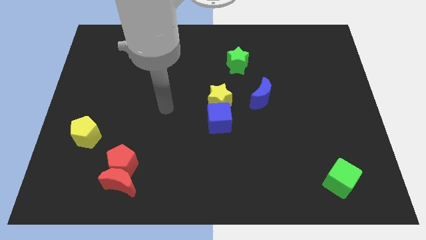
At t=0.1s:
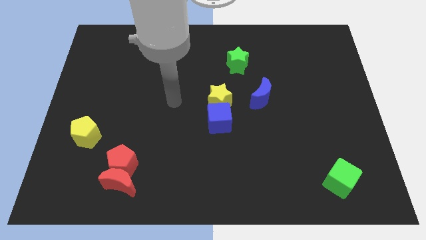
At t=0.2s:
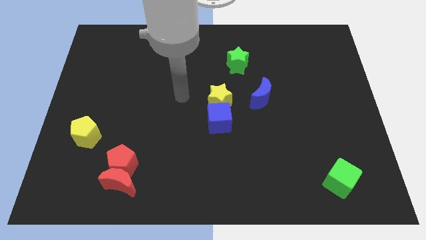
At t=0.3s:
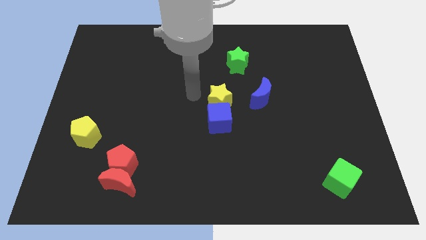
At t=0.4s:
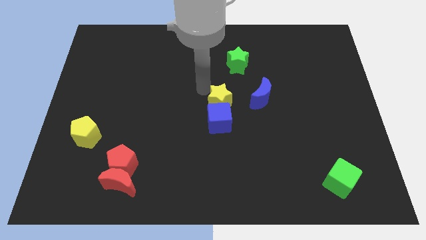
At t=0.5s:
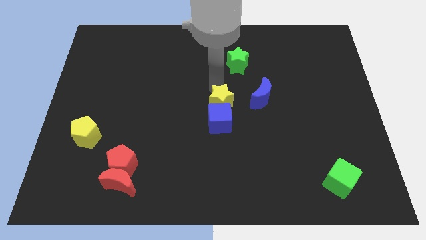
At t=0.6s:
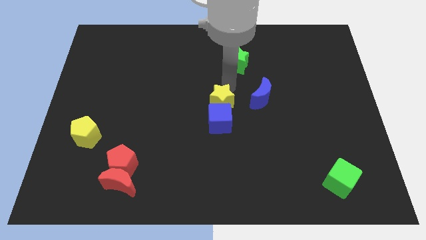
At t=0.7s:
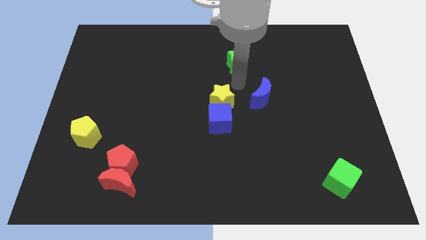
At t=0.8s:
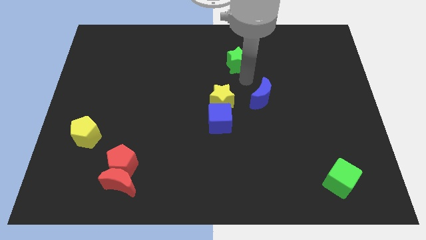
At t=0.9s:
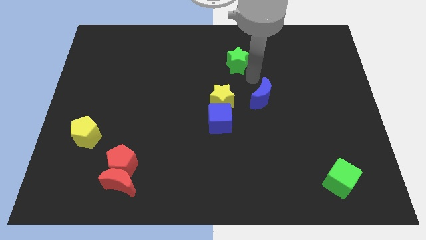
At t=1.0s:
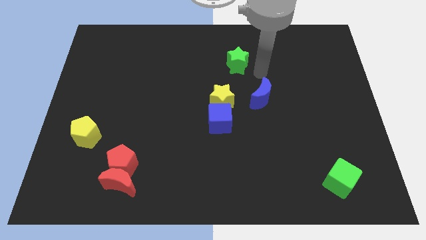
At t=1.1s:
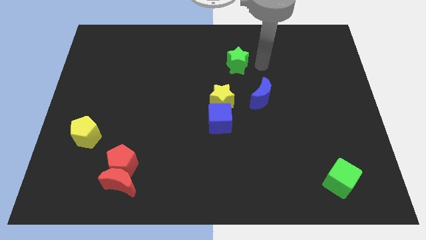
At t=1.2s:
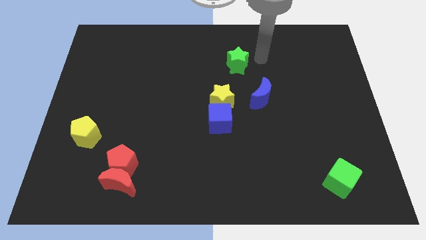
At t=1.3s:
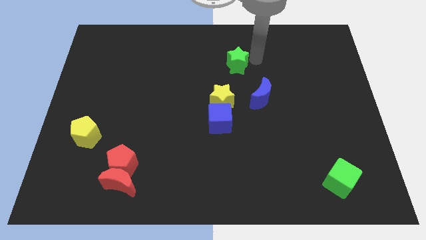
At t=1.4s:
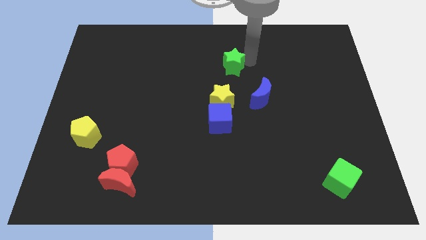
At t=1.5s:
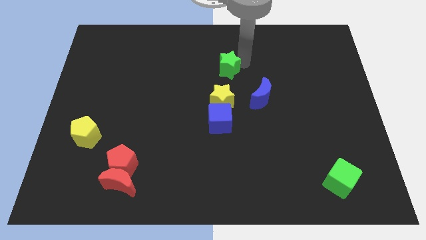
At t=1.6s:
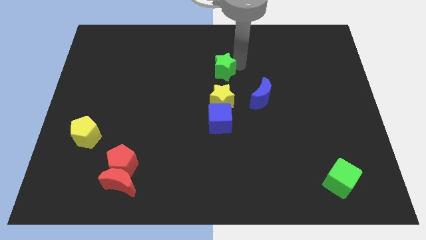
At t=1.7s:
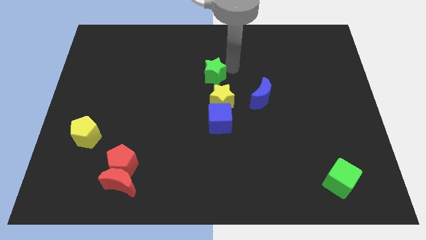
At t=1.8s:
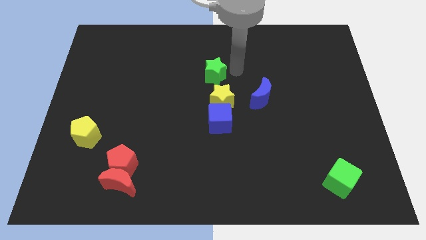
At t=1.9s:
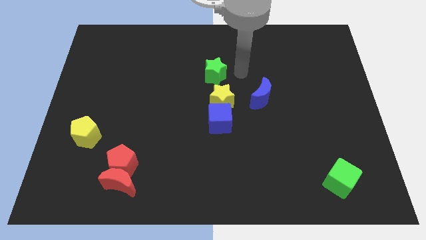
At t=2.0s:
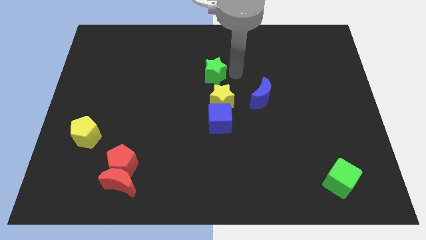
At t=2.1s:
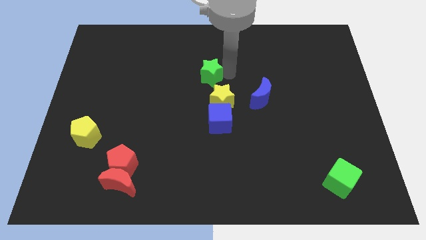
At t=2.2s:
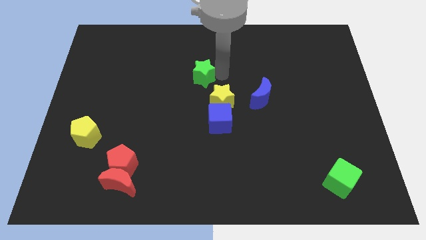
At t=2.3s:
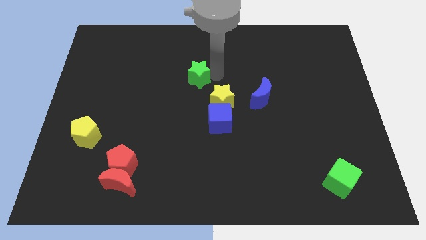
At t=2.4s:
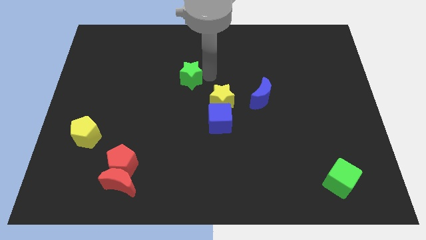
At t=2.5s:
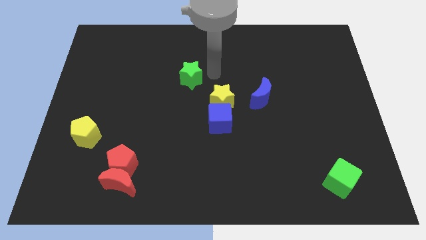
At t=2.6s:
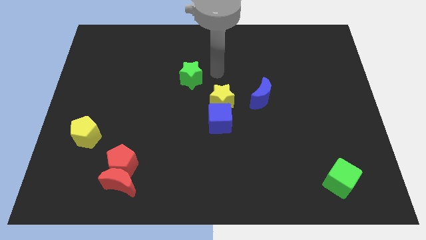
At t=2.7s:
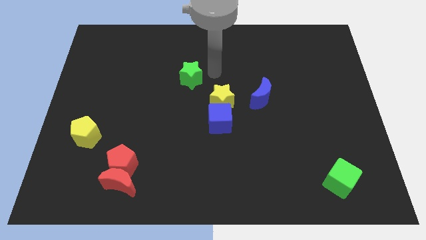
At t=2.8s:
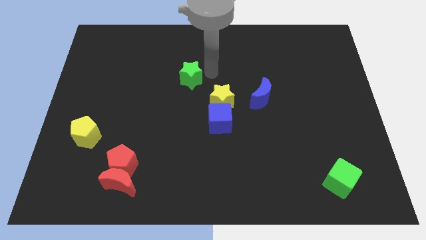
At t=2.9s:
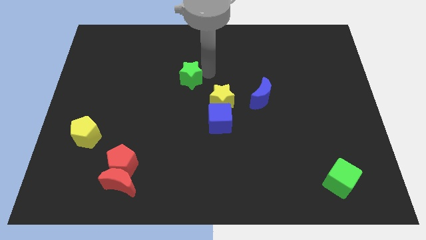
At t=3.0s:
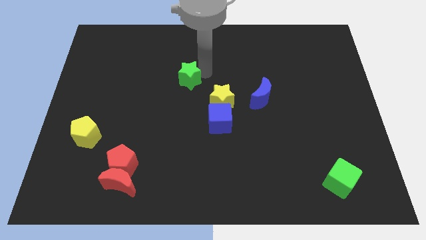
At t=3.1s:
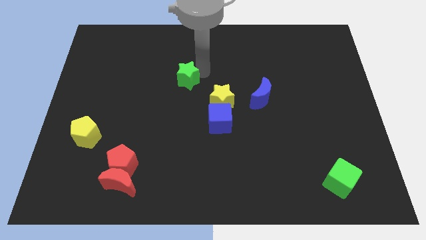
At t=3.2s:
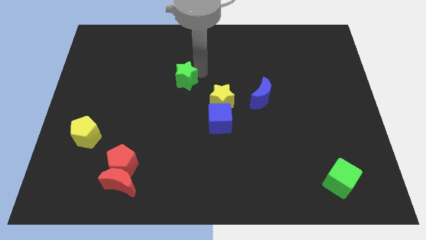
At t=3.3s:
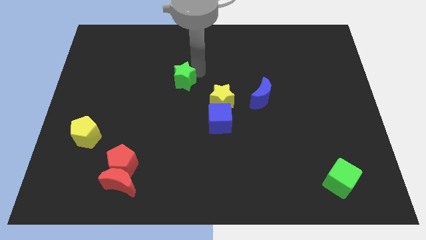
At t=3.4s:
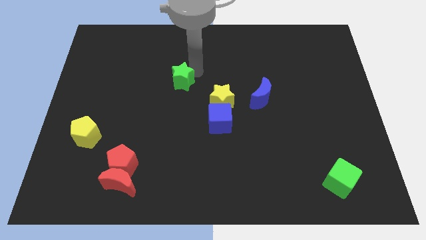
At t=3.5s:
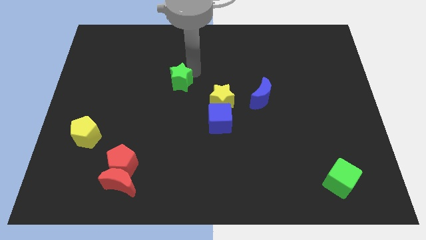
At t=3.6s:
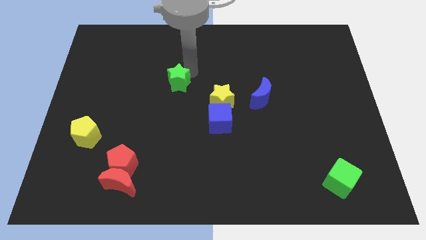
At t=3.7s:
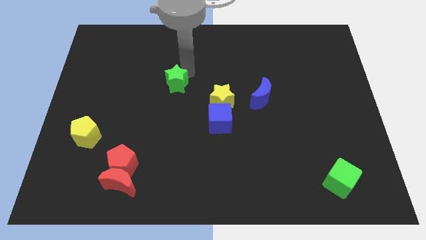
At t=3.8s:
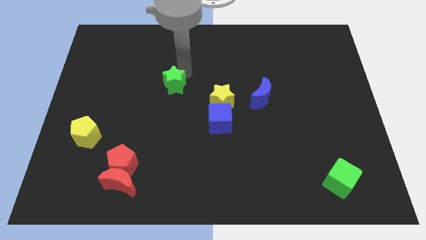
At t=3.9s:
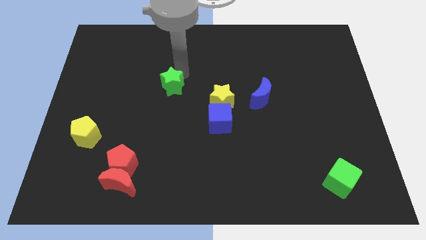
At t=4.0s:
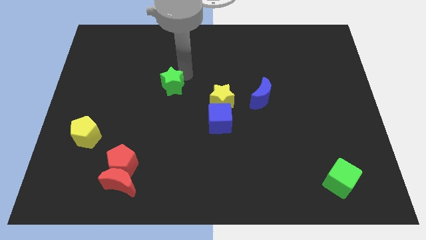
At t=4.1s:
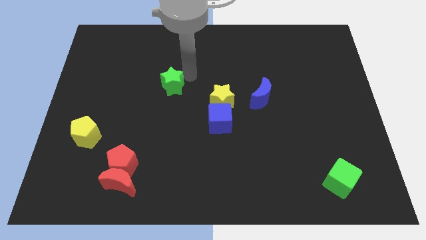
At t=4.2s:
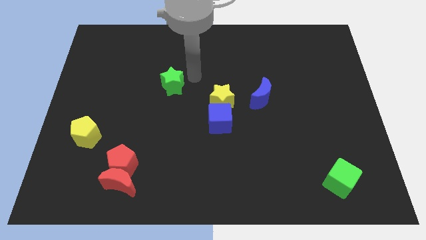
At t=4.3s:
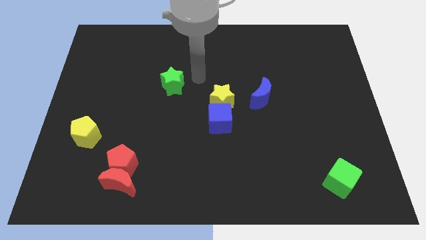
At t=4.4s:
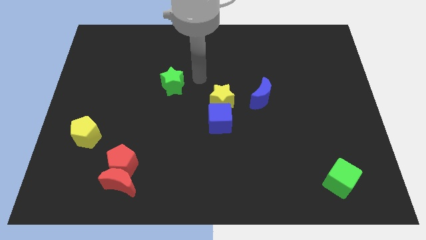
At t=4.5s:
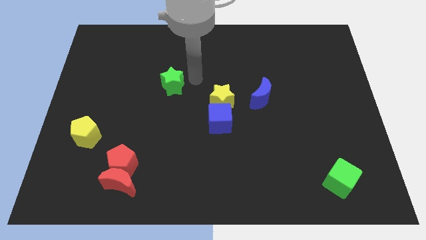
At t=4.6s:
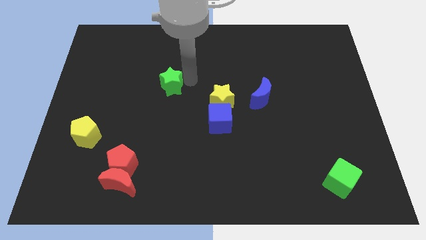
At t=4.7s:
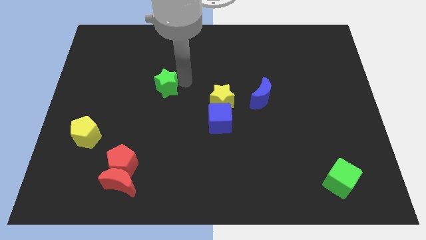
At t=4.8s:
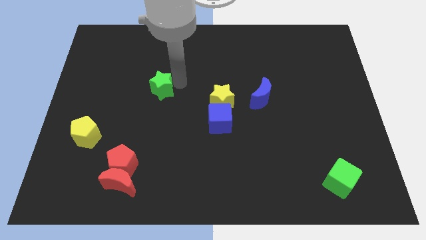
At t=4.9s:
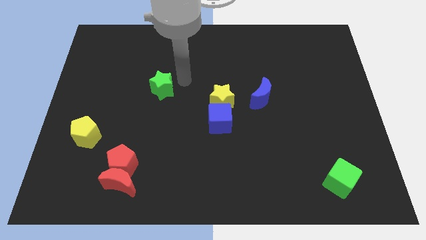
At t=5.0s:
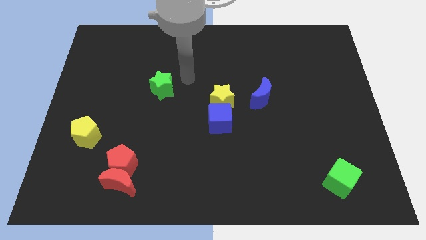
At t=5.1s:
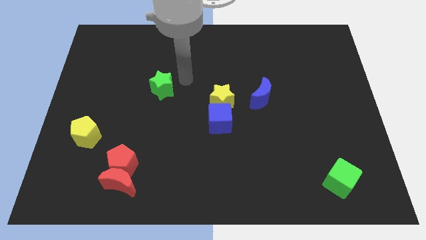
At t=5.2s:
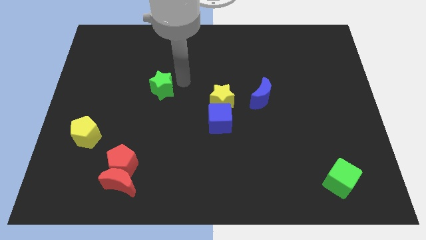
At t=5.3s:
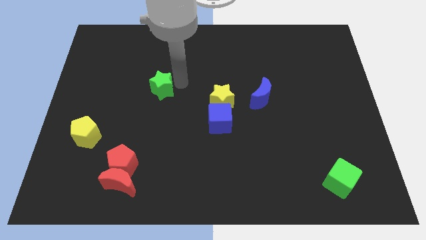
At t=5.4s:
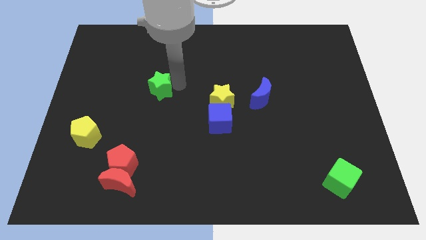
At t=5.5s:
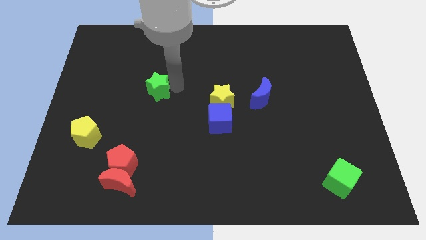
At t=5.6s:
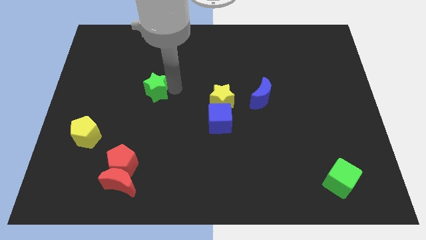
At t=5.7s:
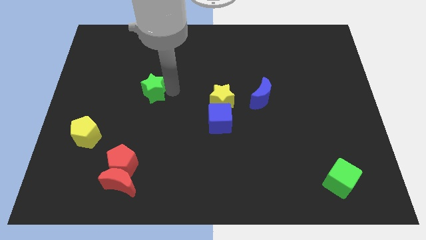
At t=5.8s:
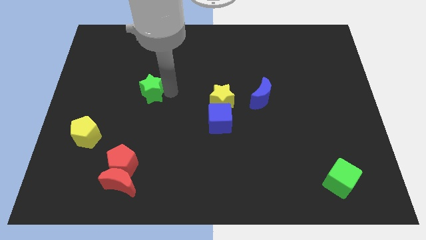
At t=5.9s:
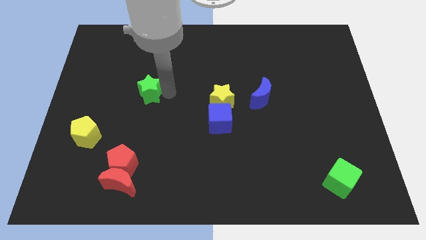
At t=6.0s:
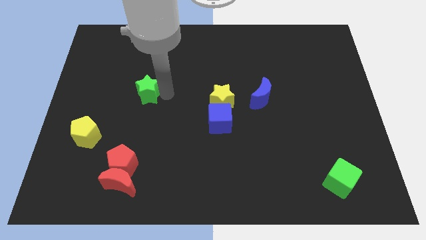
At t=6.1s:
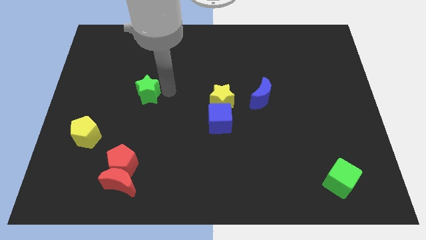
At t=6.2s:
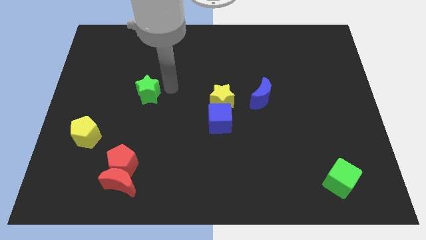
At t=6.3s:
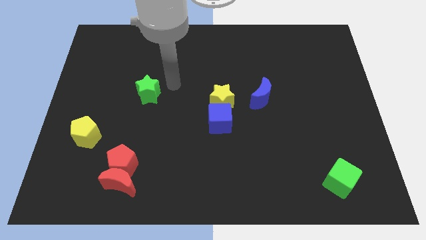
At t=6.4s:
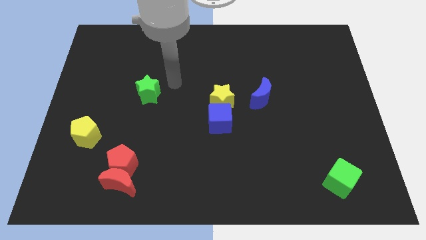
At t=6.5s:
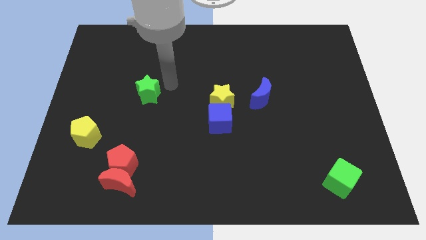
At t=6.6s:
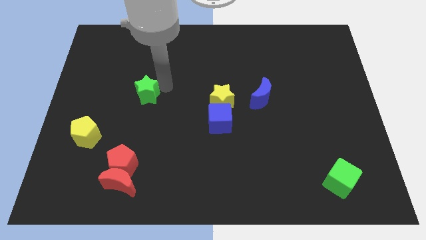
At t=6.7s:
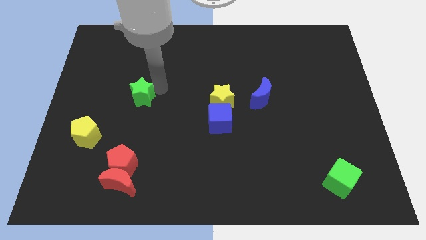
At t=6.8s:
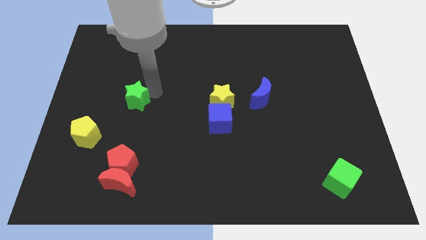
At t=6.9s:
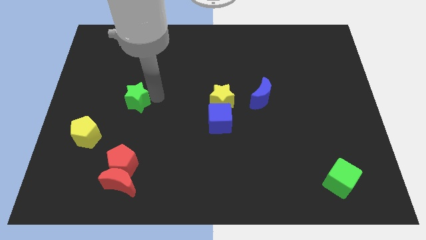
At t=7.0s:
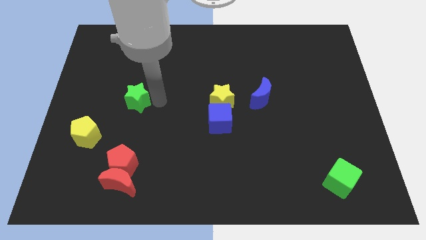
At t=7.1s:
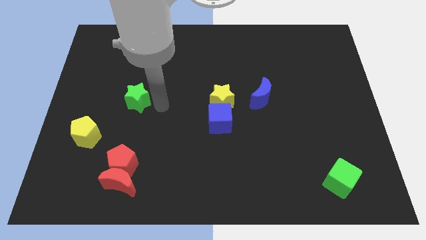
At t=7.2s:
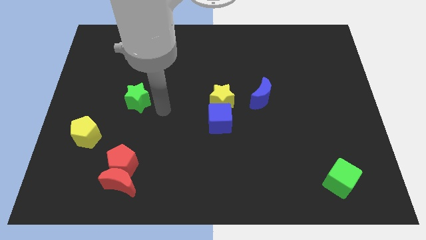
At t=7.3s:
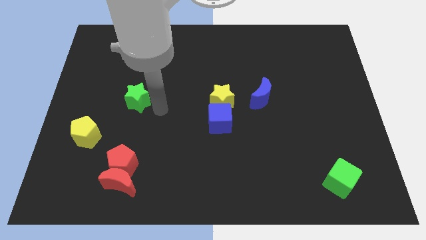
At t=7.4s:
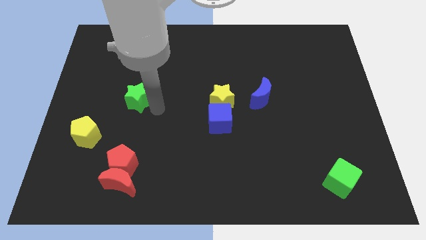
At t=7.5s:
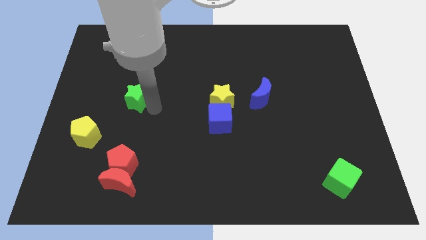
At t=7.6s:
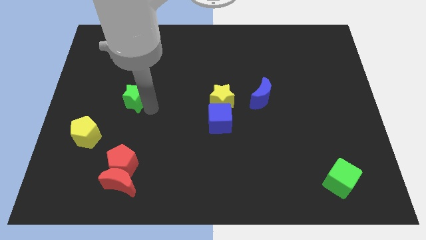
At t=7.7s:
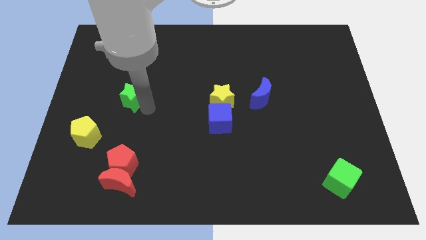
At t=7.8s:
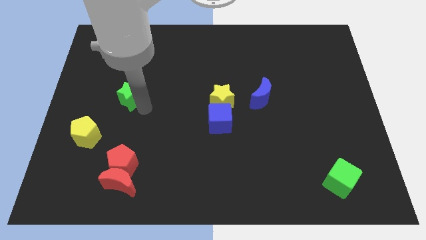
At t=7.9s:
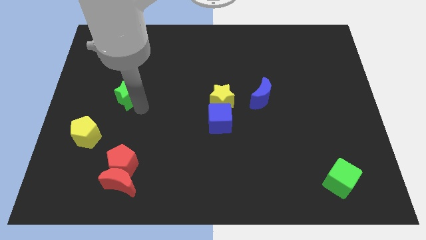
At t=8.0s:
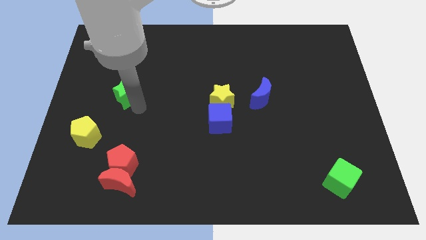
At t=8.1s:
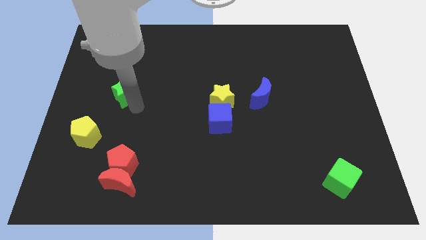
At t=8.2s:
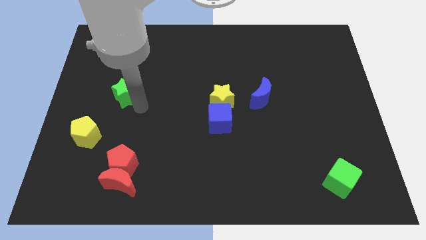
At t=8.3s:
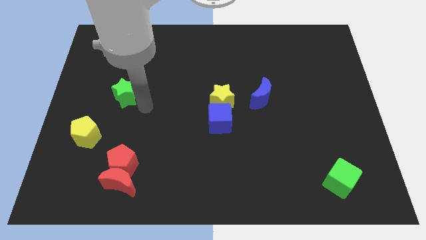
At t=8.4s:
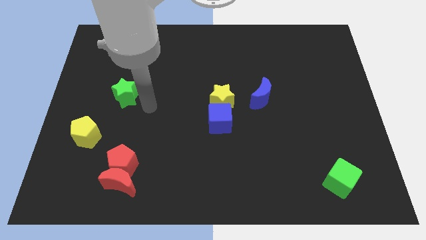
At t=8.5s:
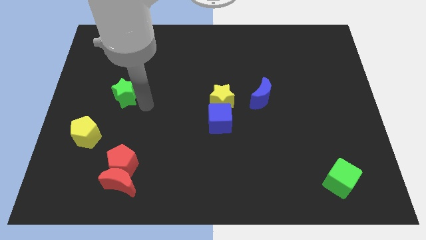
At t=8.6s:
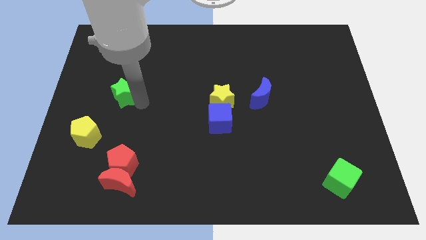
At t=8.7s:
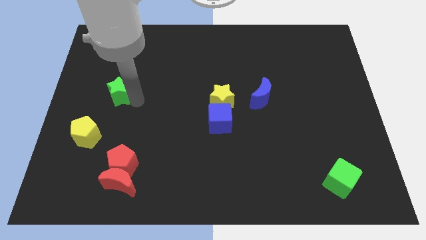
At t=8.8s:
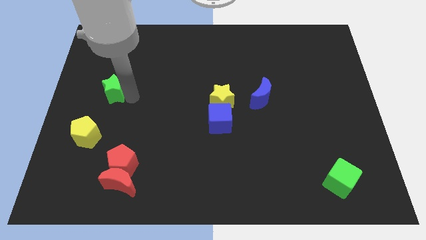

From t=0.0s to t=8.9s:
slide the green star to the top side of the yellow pentagon
